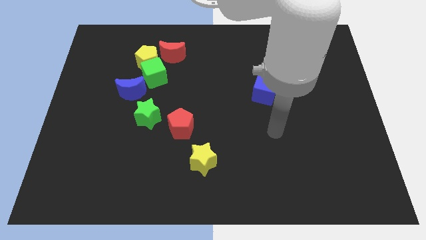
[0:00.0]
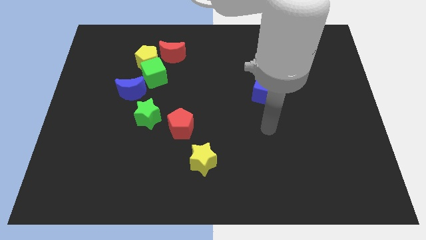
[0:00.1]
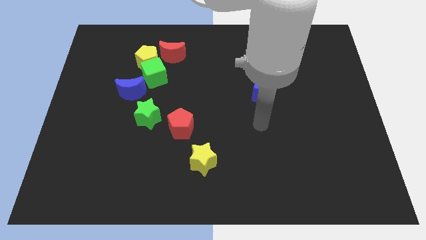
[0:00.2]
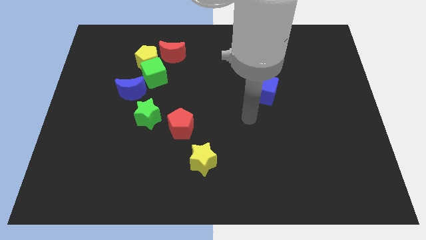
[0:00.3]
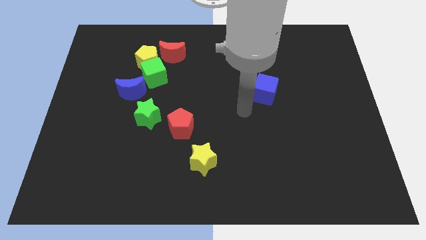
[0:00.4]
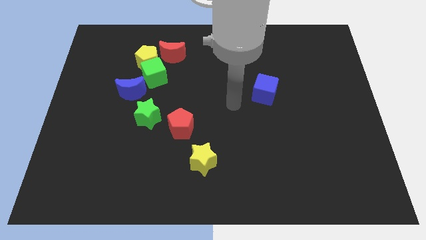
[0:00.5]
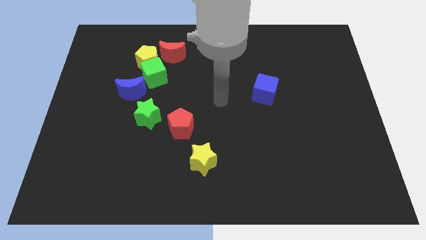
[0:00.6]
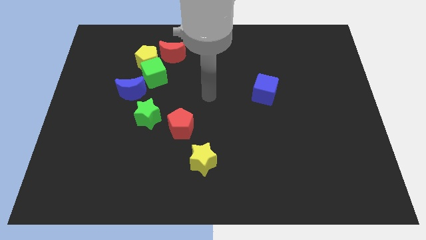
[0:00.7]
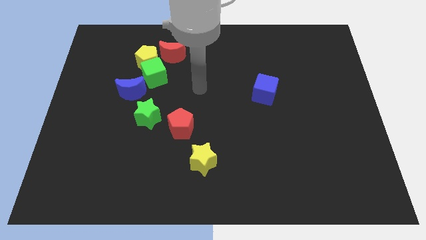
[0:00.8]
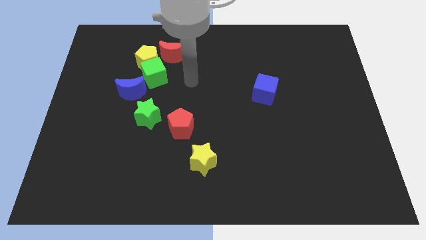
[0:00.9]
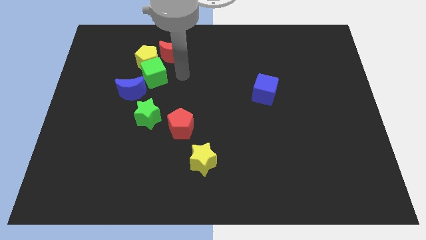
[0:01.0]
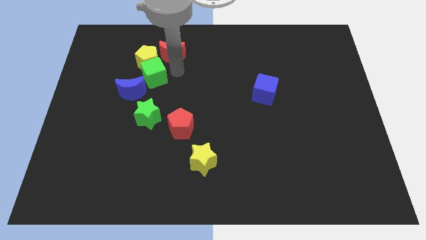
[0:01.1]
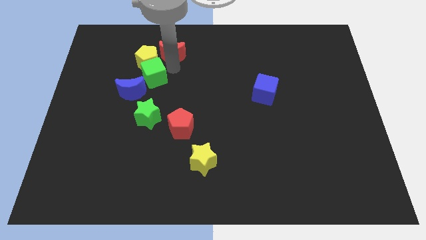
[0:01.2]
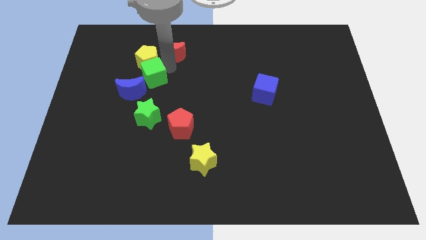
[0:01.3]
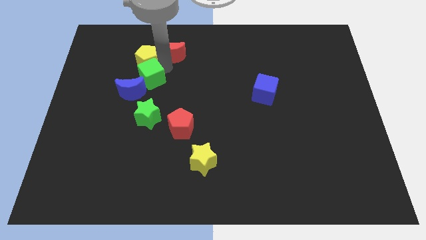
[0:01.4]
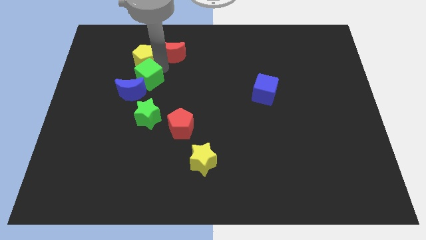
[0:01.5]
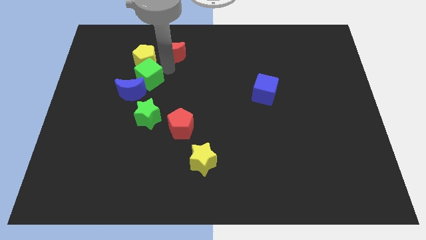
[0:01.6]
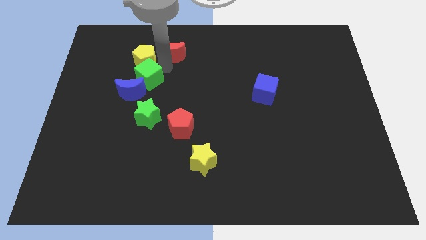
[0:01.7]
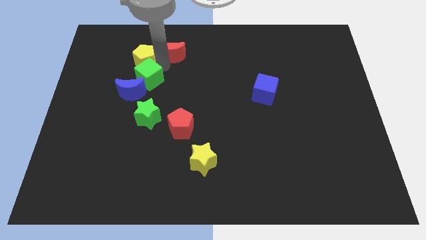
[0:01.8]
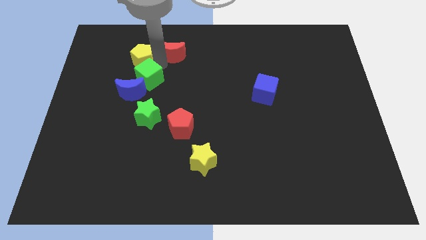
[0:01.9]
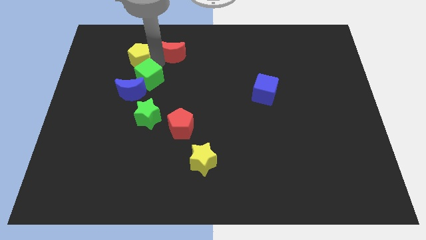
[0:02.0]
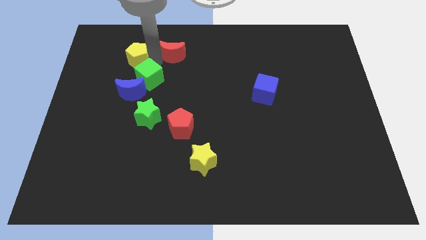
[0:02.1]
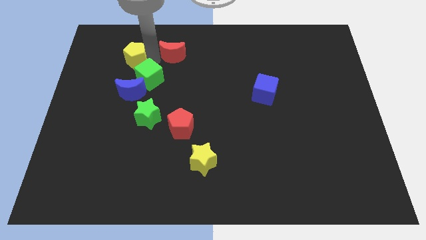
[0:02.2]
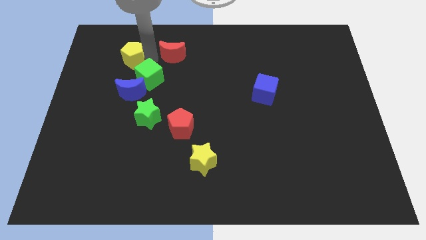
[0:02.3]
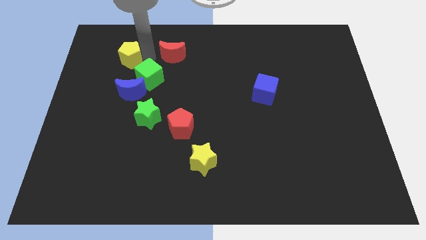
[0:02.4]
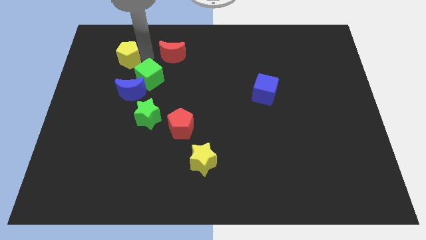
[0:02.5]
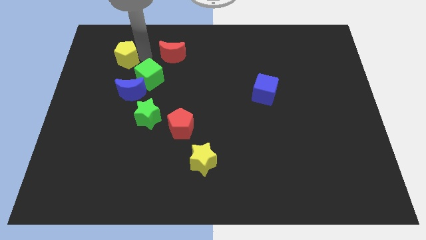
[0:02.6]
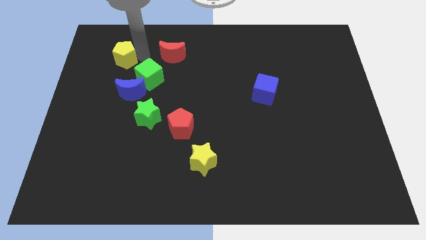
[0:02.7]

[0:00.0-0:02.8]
separate the yellow pentagon from the green cube and red moon

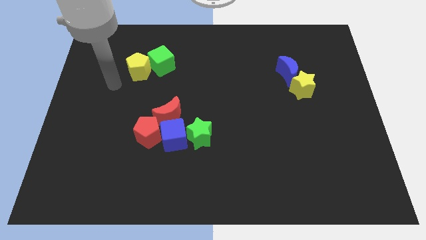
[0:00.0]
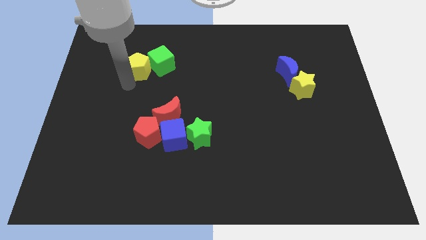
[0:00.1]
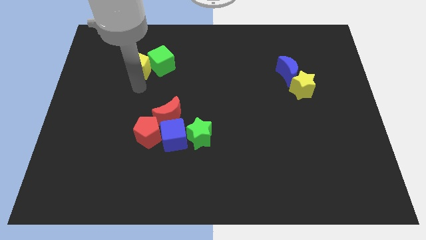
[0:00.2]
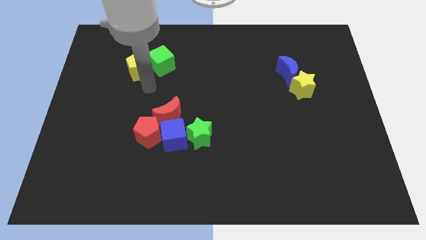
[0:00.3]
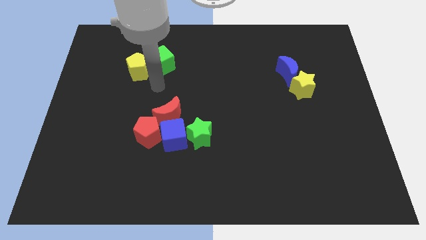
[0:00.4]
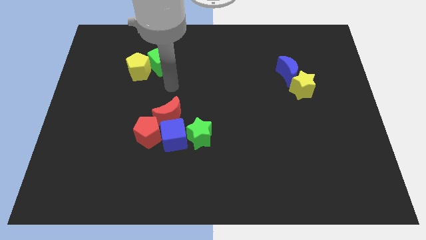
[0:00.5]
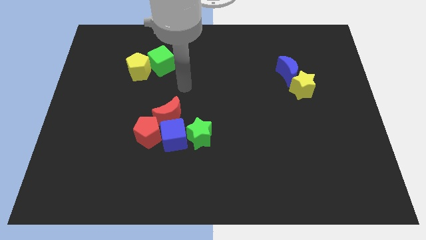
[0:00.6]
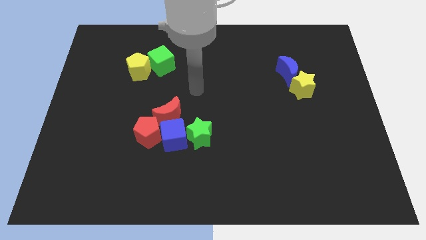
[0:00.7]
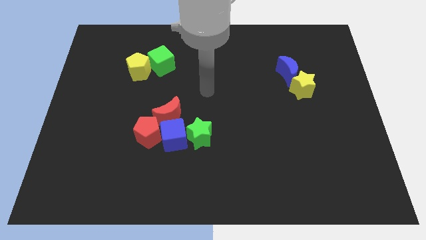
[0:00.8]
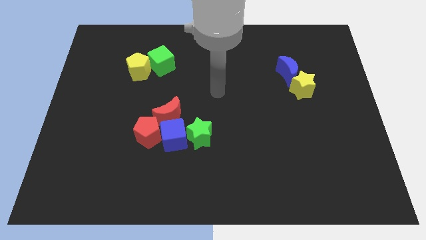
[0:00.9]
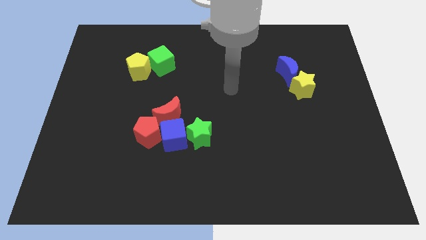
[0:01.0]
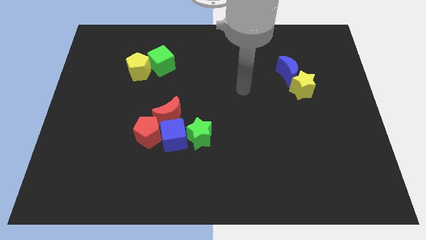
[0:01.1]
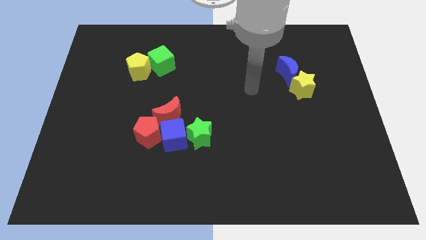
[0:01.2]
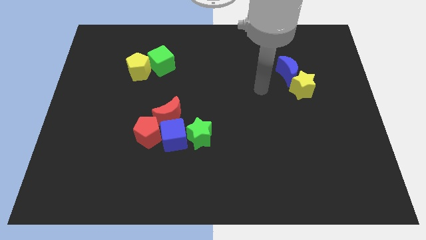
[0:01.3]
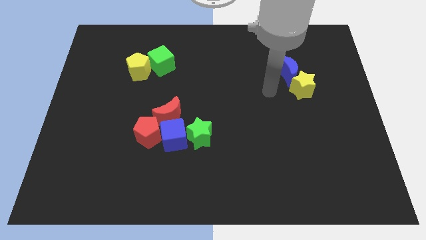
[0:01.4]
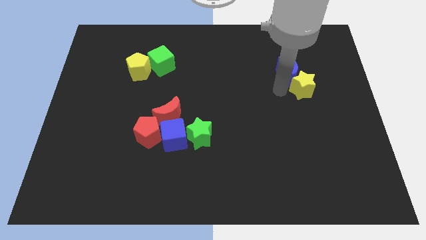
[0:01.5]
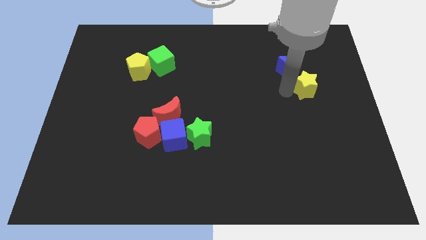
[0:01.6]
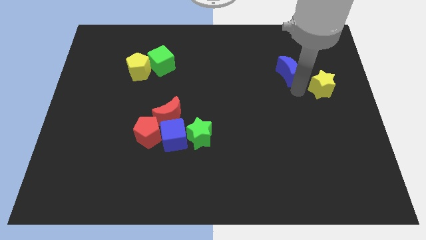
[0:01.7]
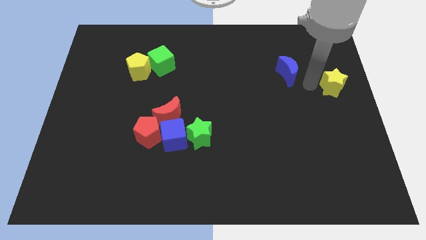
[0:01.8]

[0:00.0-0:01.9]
pull the blue moon apart from the yellow star

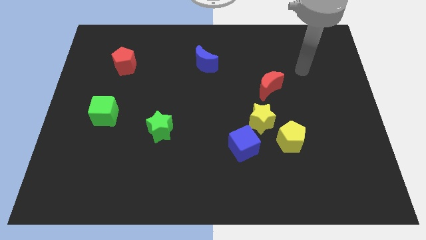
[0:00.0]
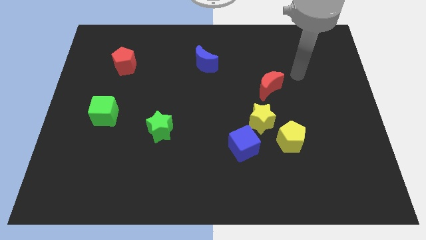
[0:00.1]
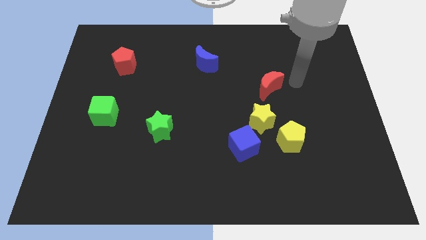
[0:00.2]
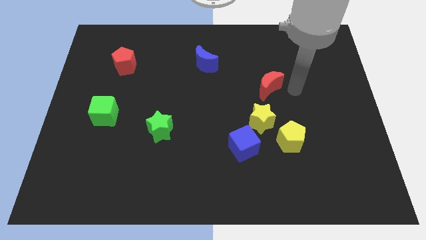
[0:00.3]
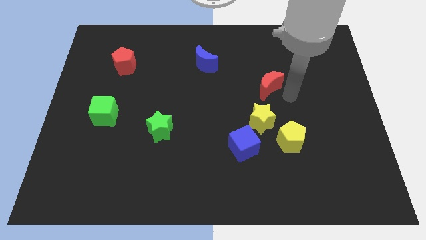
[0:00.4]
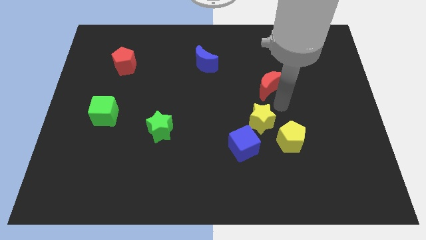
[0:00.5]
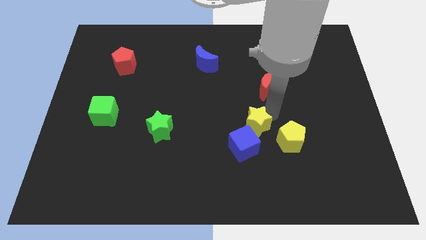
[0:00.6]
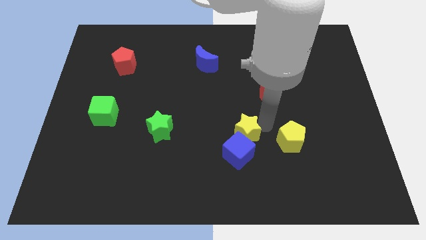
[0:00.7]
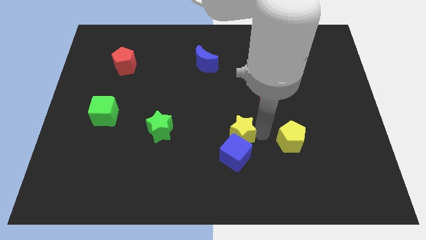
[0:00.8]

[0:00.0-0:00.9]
move the yellow pentagon away from the yellow star

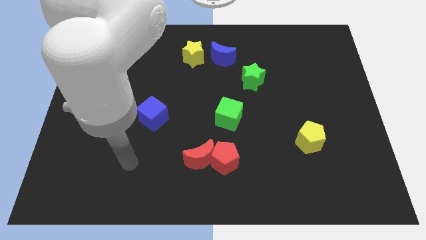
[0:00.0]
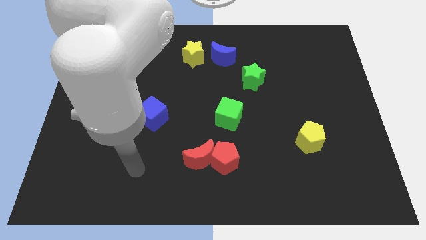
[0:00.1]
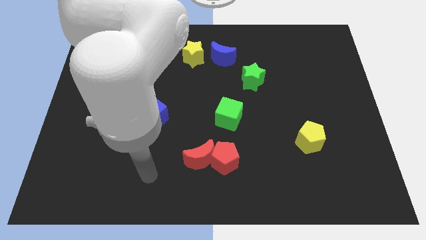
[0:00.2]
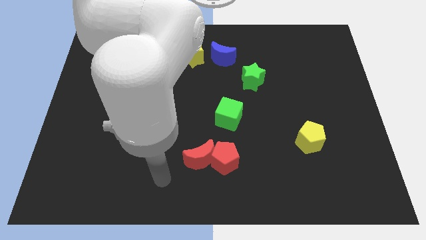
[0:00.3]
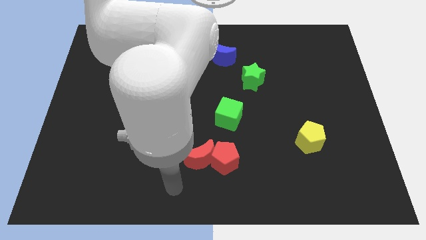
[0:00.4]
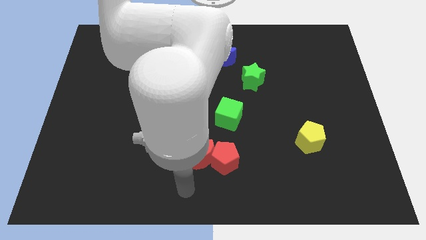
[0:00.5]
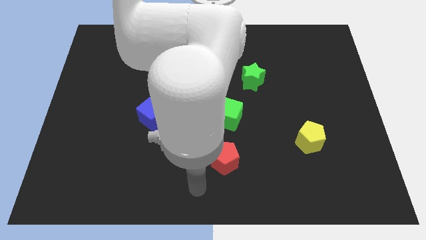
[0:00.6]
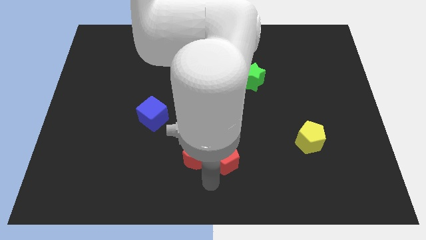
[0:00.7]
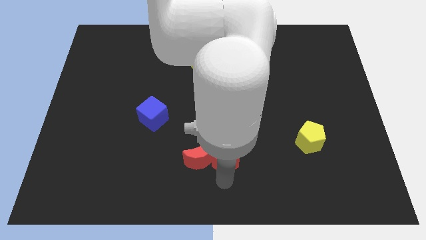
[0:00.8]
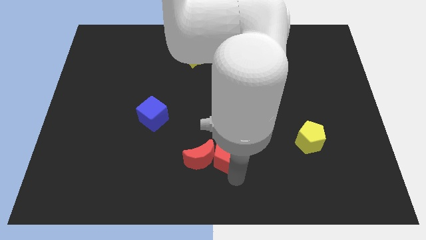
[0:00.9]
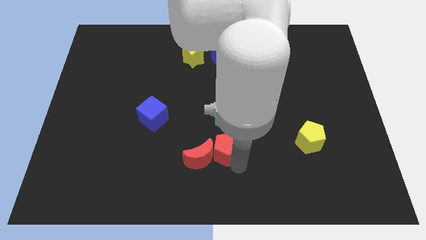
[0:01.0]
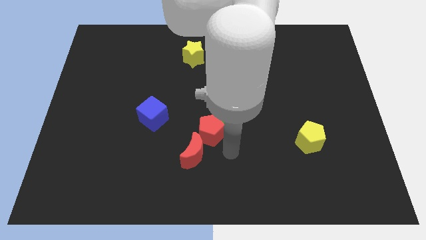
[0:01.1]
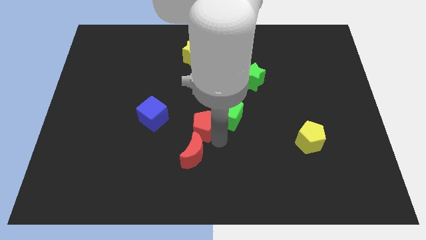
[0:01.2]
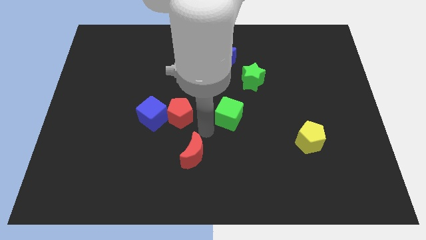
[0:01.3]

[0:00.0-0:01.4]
separate the red moon from the red pentagon

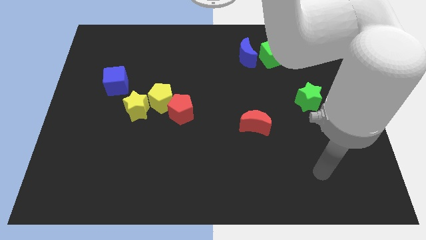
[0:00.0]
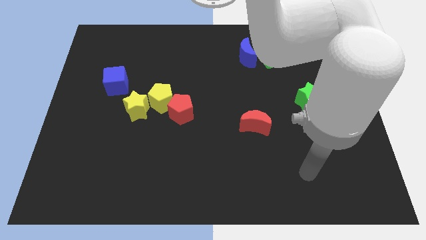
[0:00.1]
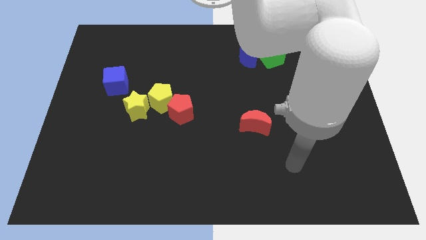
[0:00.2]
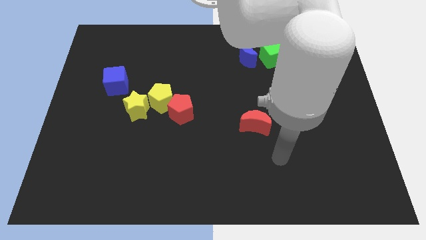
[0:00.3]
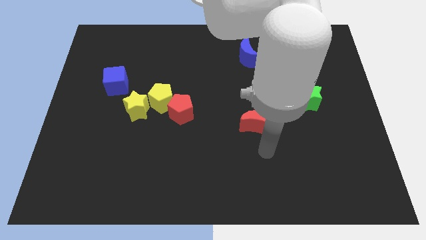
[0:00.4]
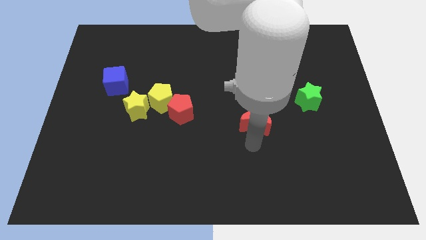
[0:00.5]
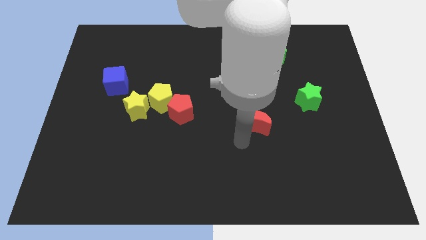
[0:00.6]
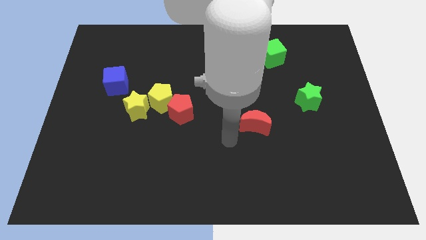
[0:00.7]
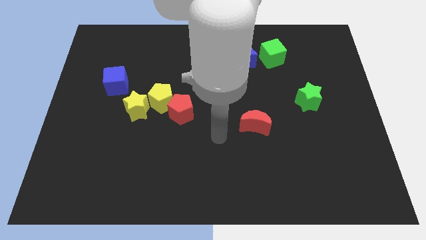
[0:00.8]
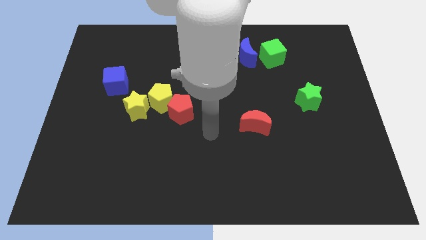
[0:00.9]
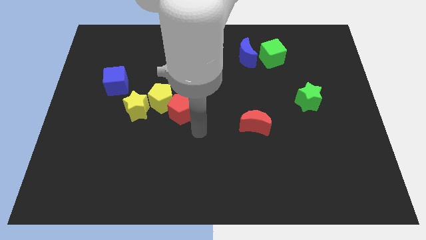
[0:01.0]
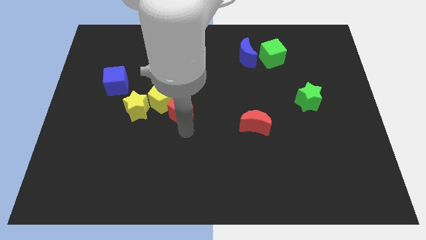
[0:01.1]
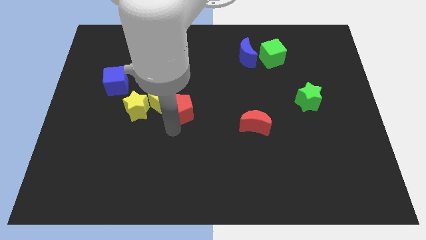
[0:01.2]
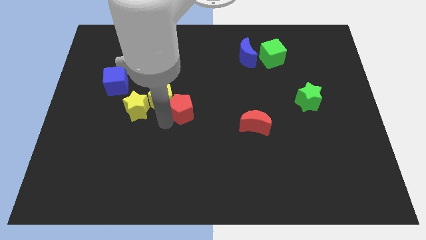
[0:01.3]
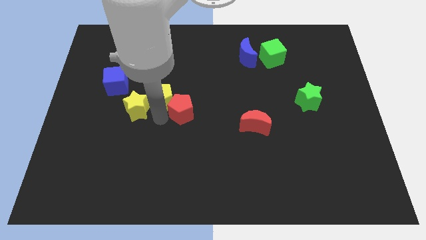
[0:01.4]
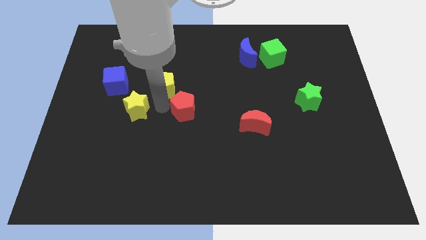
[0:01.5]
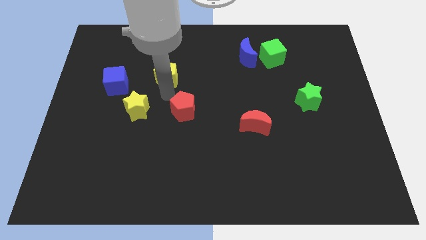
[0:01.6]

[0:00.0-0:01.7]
separate the red pentagon from the yellow pentagon

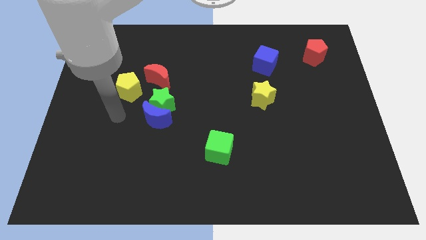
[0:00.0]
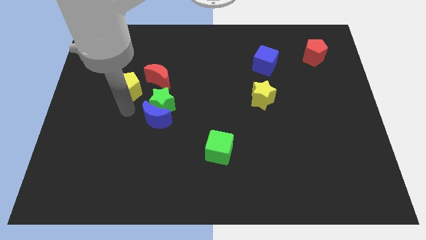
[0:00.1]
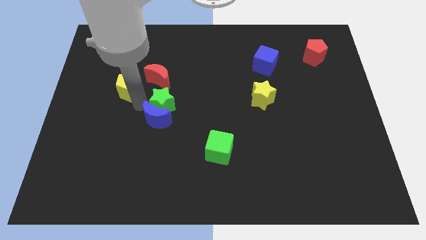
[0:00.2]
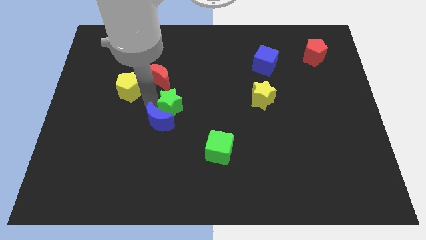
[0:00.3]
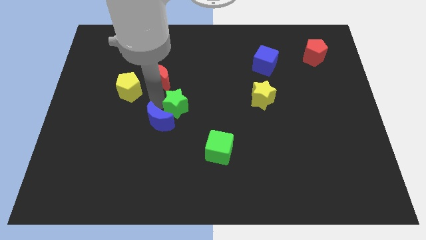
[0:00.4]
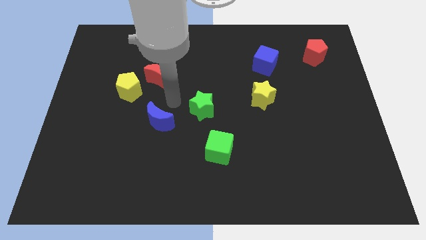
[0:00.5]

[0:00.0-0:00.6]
move the blue moon away from the green star
